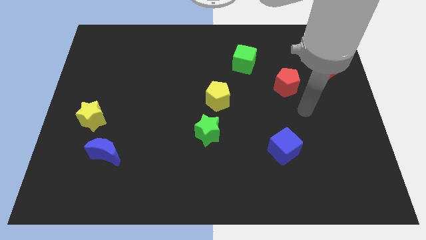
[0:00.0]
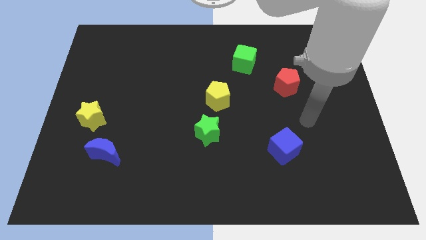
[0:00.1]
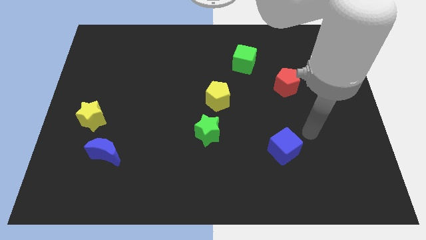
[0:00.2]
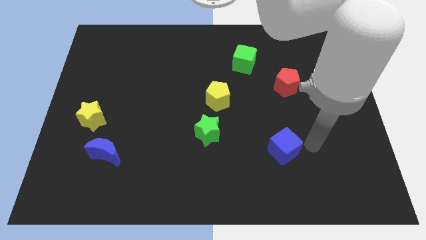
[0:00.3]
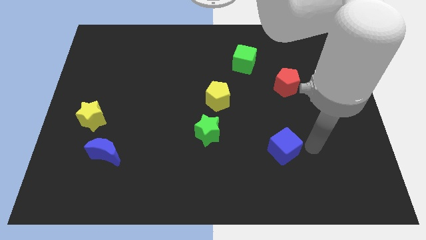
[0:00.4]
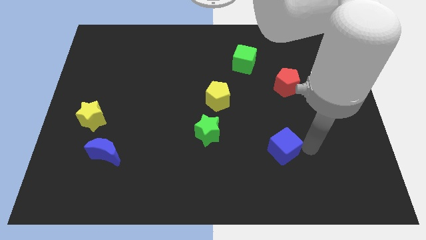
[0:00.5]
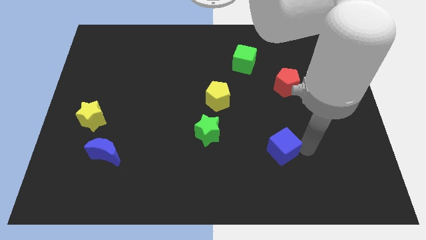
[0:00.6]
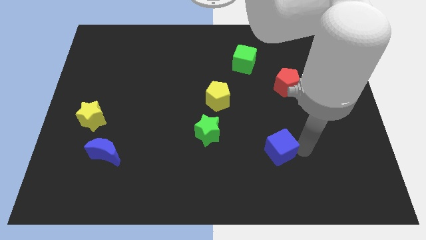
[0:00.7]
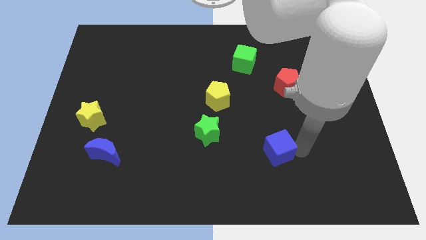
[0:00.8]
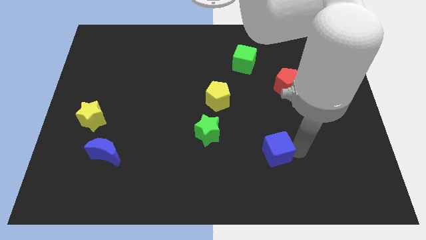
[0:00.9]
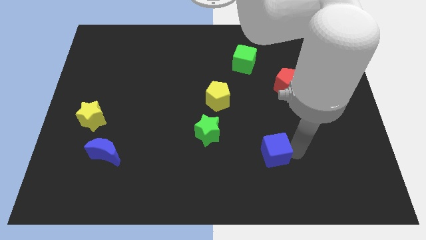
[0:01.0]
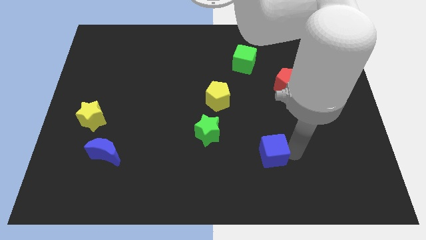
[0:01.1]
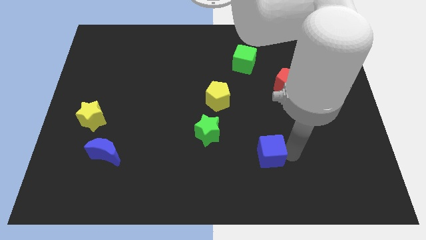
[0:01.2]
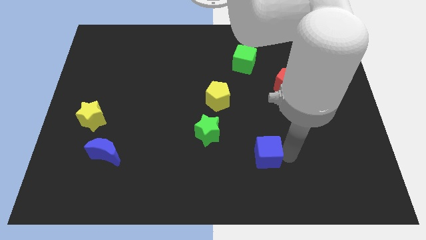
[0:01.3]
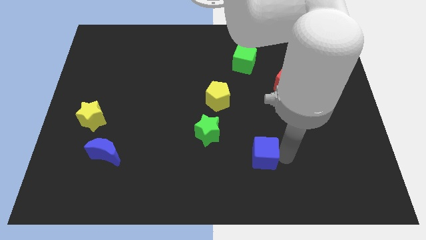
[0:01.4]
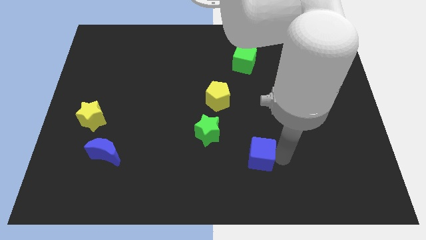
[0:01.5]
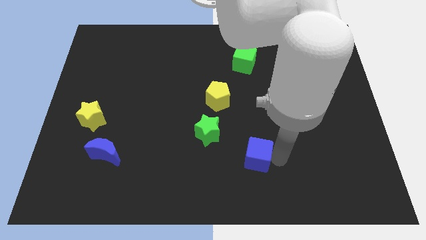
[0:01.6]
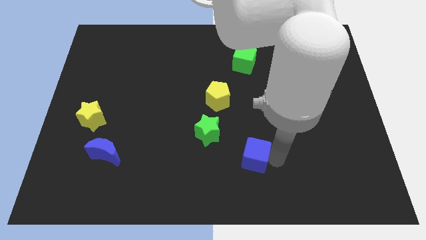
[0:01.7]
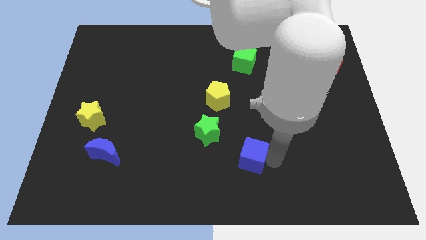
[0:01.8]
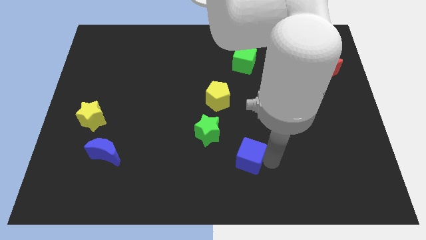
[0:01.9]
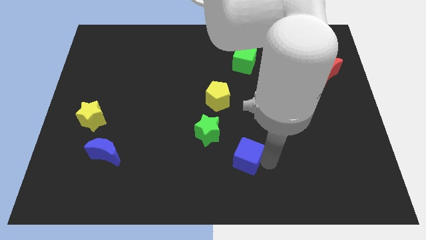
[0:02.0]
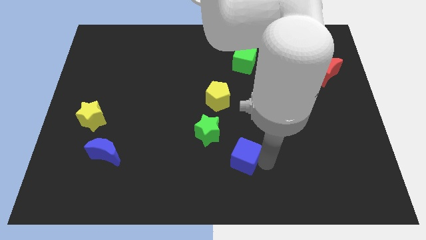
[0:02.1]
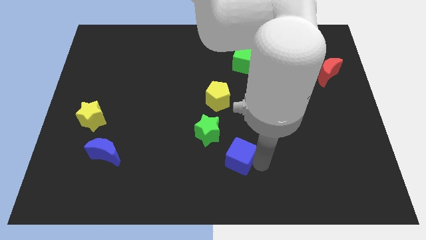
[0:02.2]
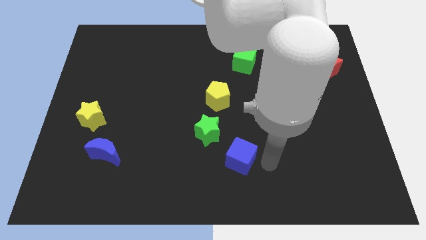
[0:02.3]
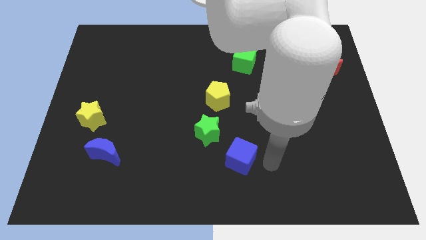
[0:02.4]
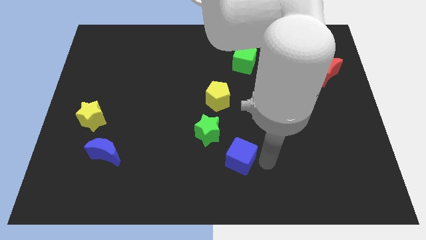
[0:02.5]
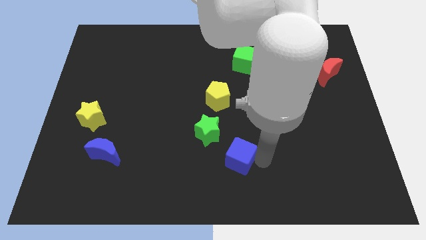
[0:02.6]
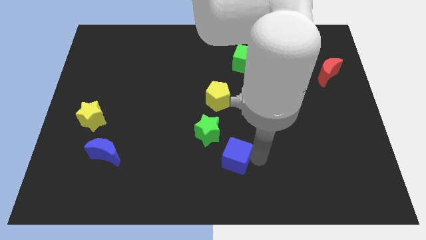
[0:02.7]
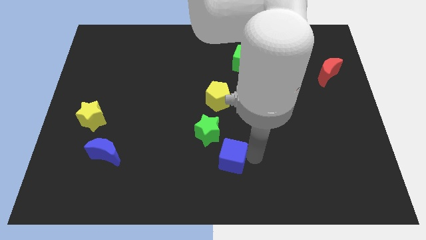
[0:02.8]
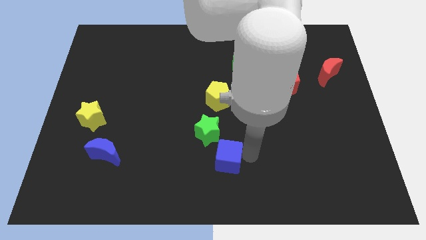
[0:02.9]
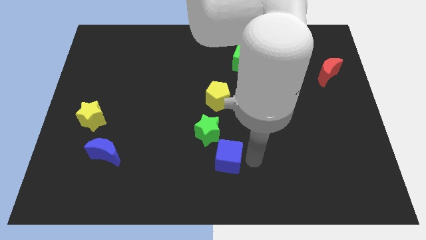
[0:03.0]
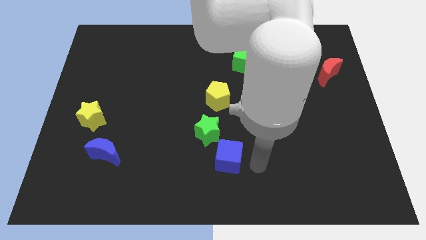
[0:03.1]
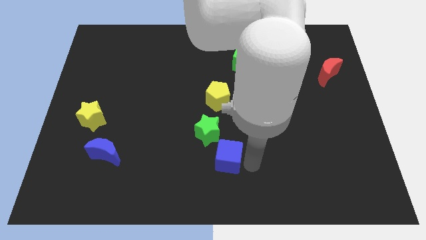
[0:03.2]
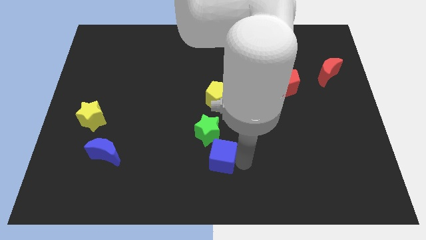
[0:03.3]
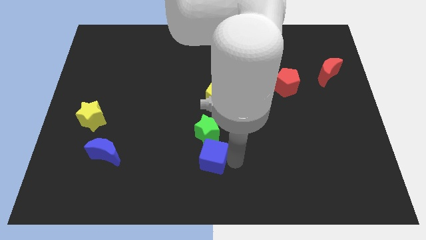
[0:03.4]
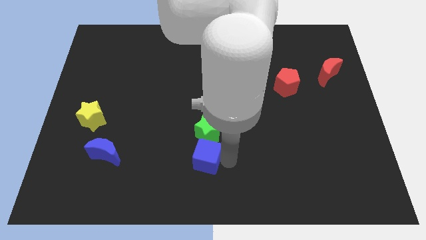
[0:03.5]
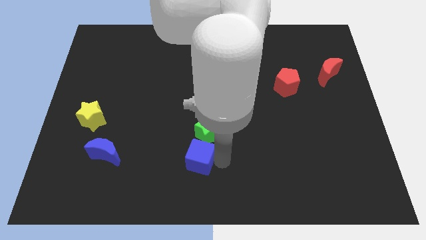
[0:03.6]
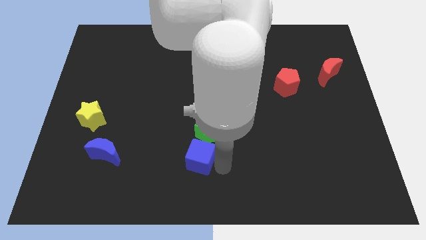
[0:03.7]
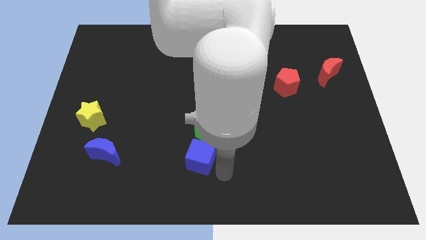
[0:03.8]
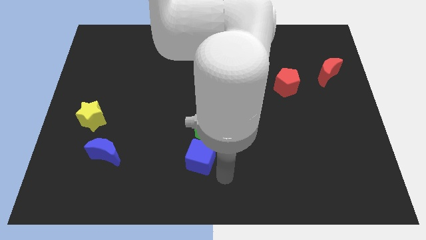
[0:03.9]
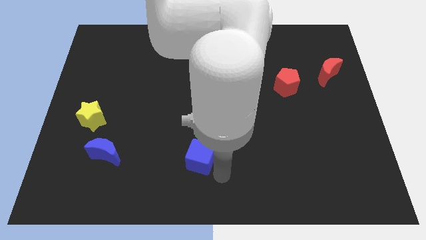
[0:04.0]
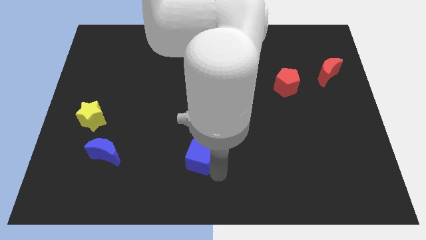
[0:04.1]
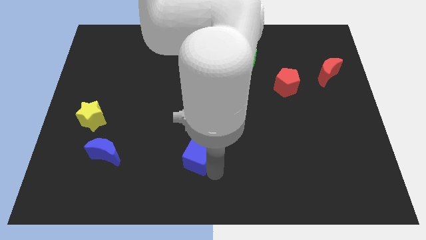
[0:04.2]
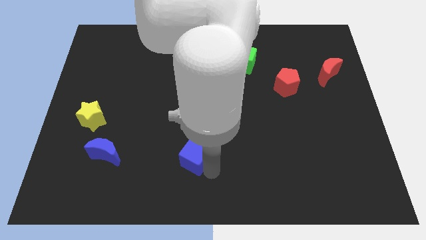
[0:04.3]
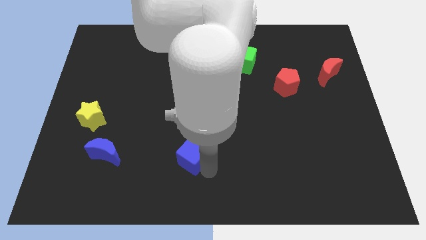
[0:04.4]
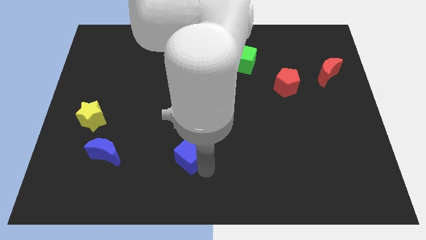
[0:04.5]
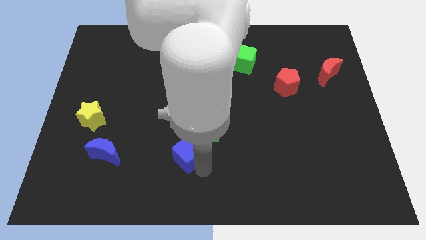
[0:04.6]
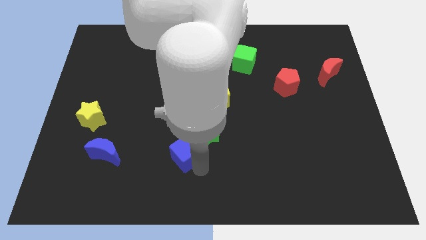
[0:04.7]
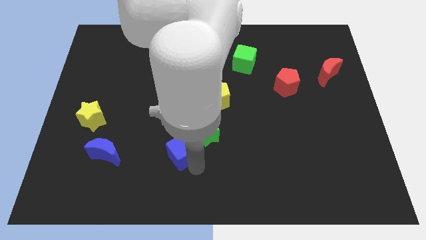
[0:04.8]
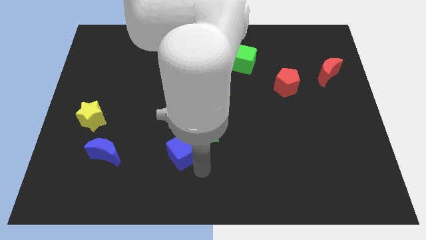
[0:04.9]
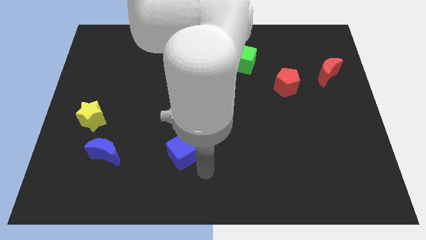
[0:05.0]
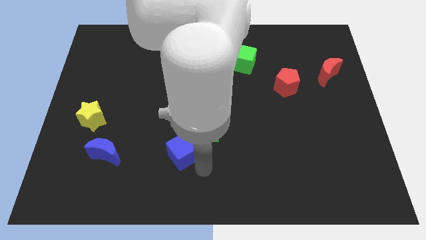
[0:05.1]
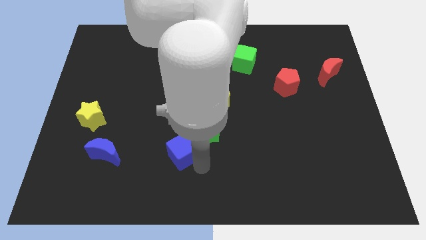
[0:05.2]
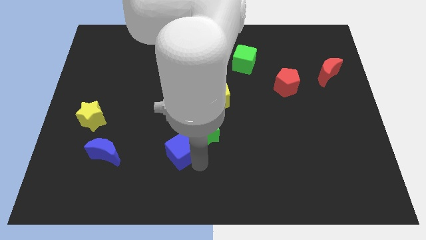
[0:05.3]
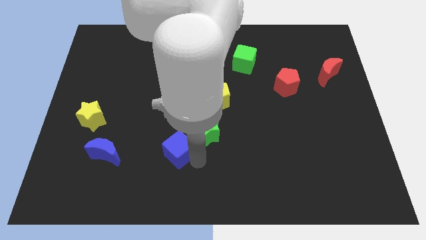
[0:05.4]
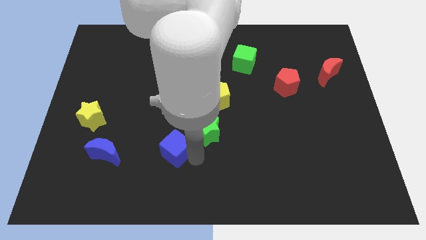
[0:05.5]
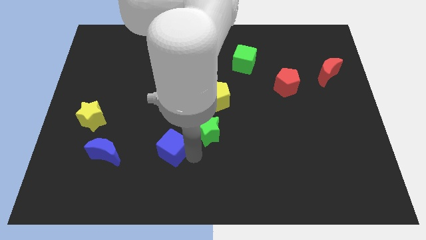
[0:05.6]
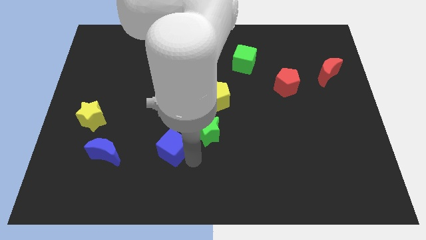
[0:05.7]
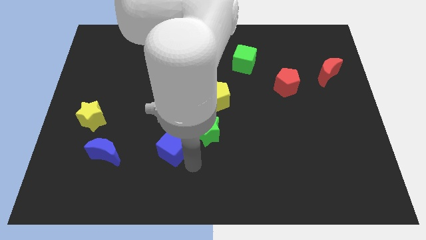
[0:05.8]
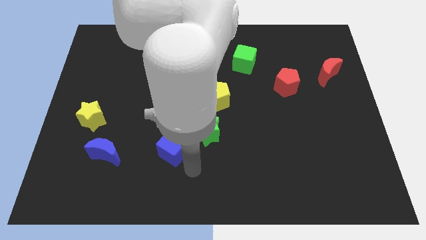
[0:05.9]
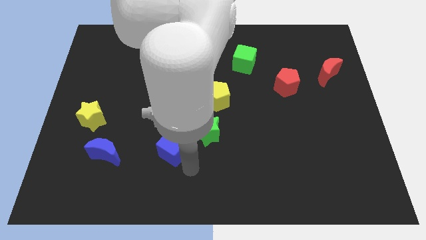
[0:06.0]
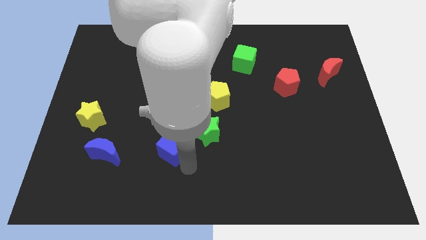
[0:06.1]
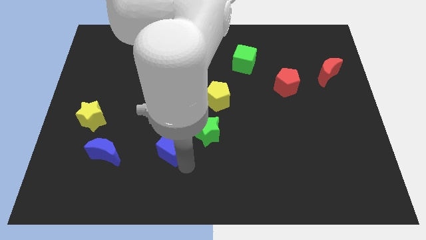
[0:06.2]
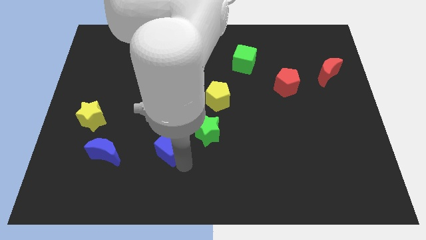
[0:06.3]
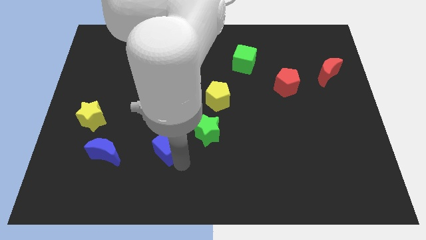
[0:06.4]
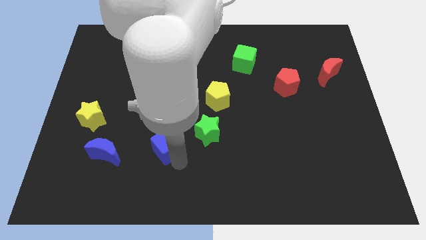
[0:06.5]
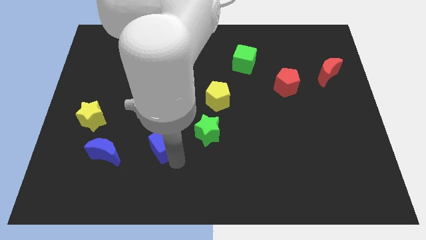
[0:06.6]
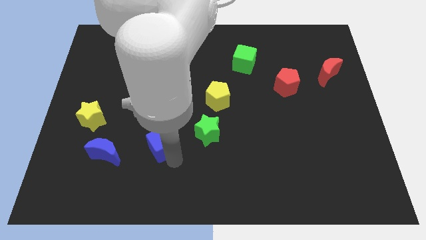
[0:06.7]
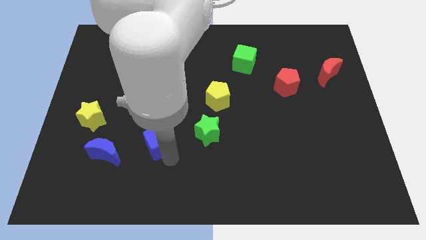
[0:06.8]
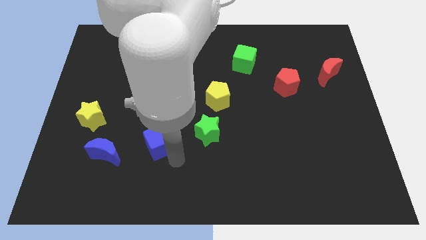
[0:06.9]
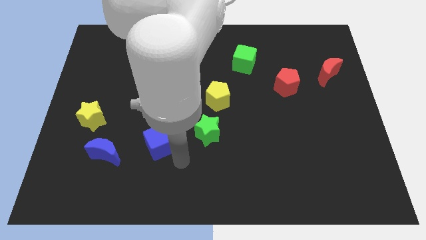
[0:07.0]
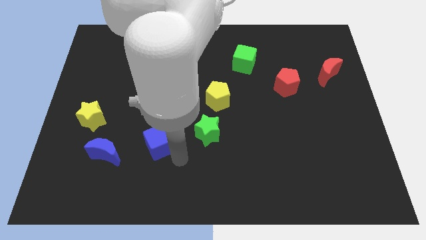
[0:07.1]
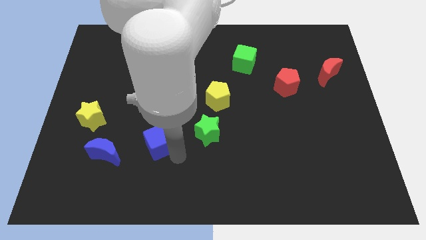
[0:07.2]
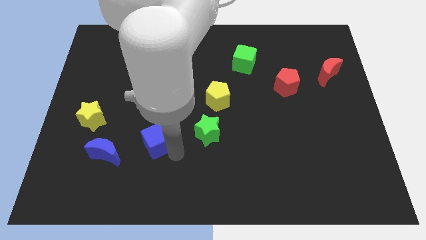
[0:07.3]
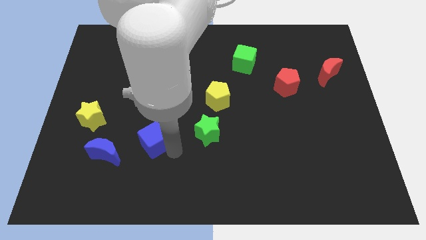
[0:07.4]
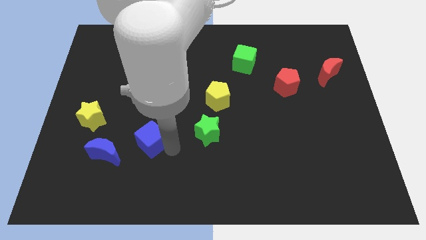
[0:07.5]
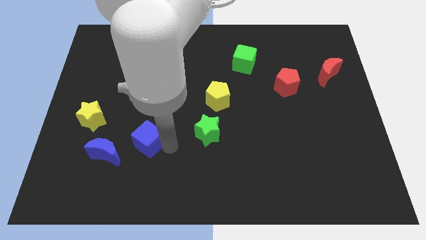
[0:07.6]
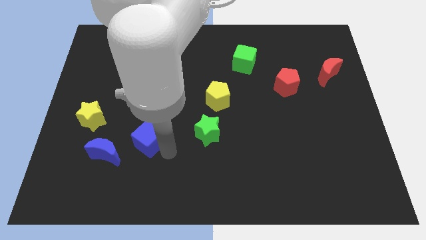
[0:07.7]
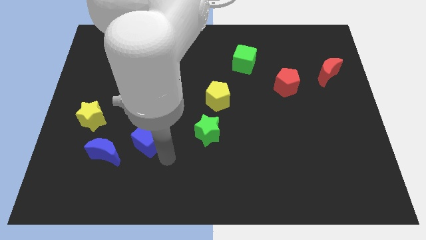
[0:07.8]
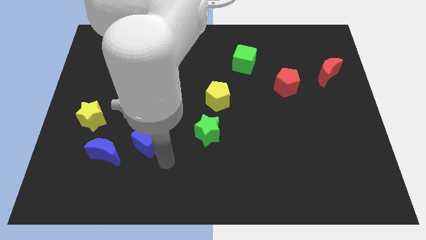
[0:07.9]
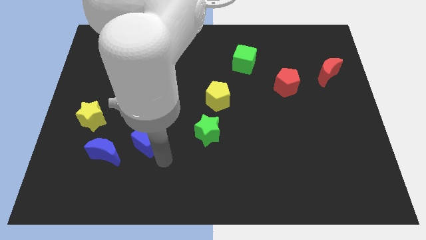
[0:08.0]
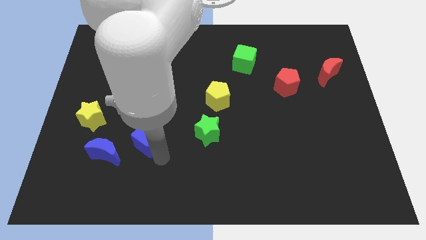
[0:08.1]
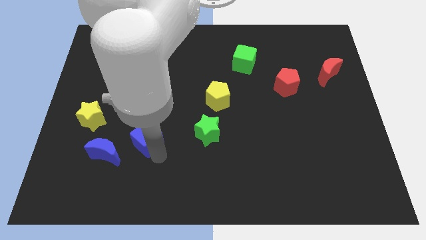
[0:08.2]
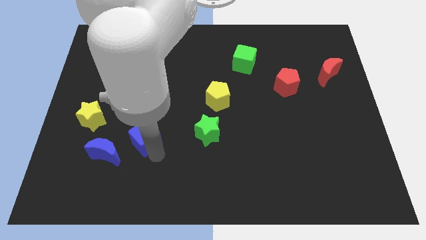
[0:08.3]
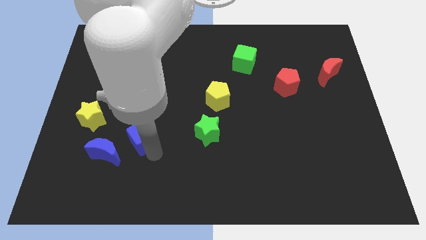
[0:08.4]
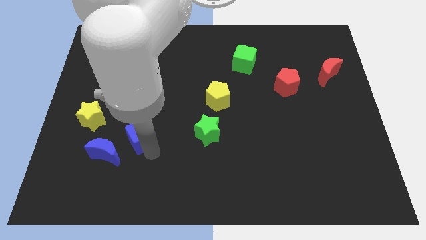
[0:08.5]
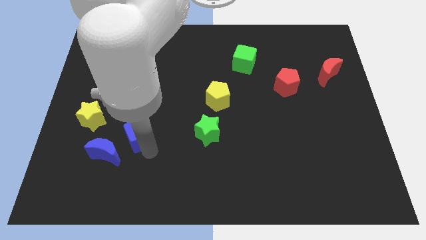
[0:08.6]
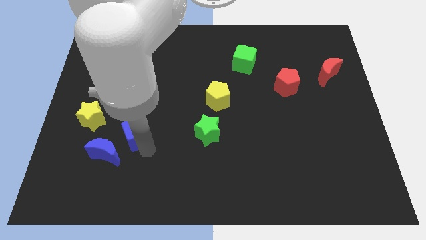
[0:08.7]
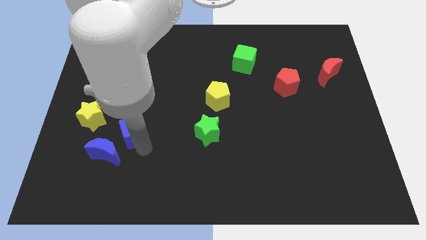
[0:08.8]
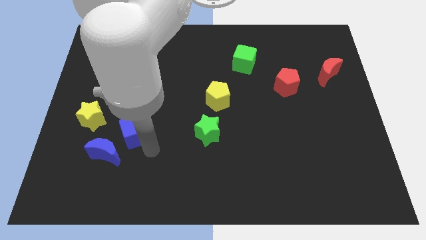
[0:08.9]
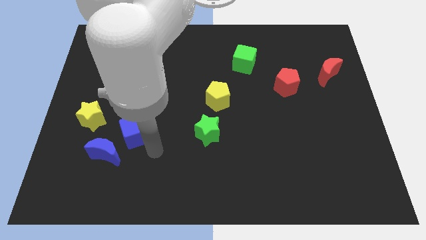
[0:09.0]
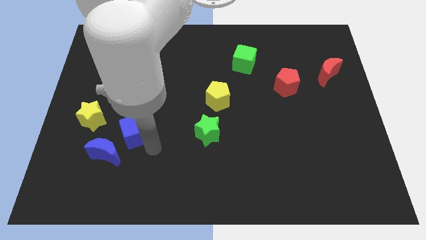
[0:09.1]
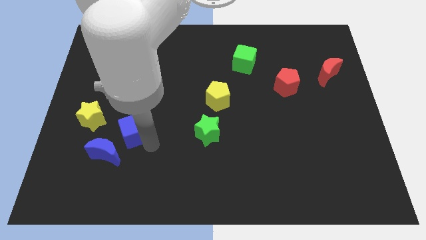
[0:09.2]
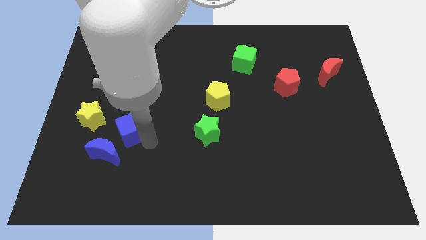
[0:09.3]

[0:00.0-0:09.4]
push the blue cube to the top side of the blue moon
